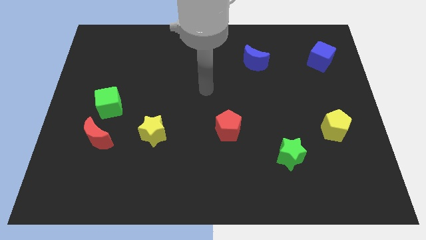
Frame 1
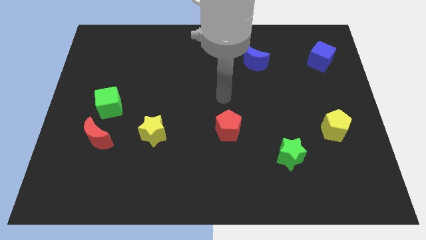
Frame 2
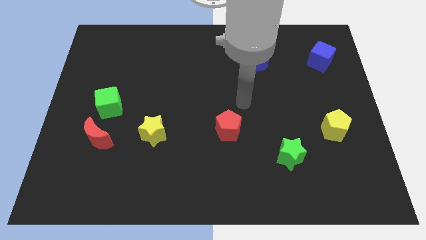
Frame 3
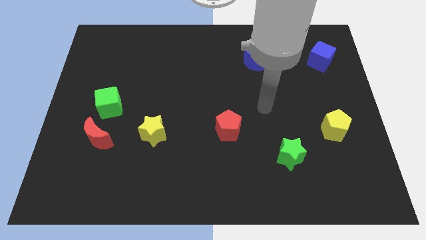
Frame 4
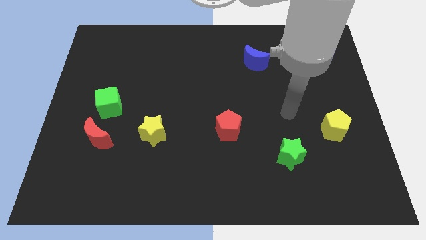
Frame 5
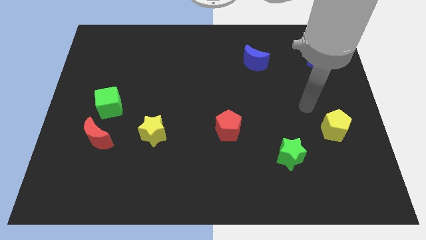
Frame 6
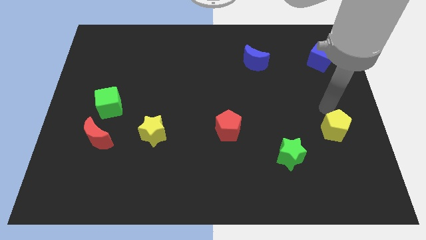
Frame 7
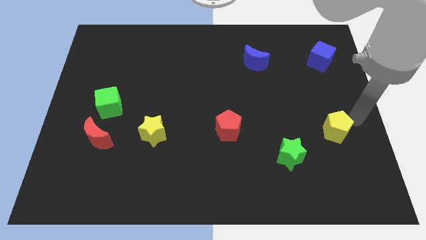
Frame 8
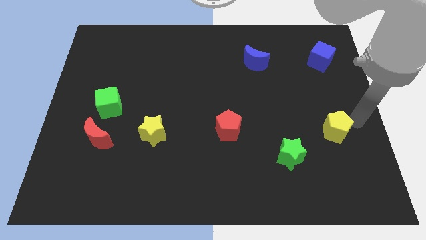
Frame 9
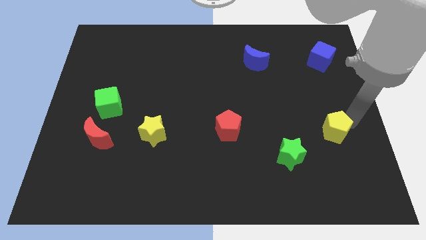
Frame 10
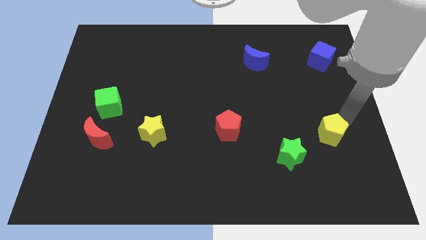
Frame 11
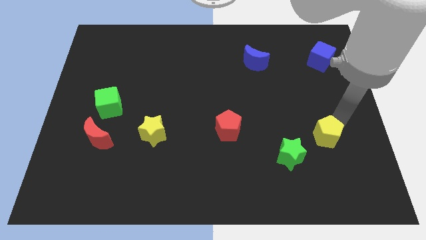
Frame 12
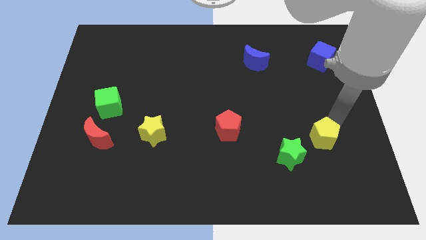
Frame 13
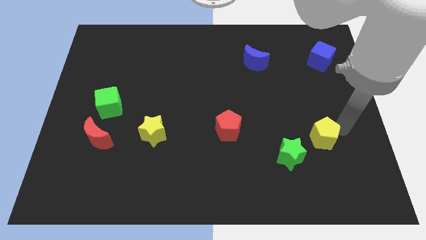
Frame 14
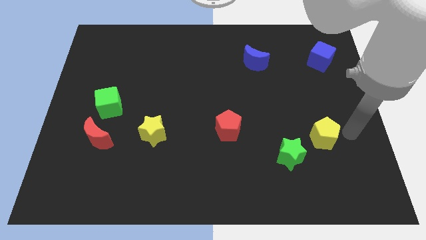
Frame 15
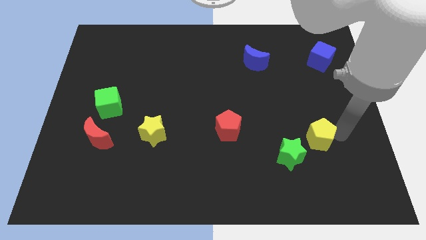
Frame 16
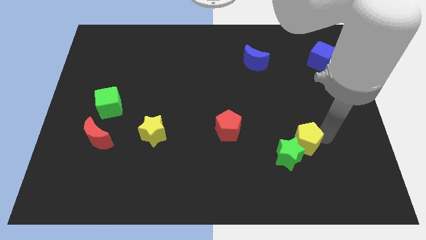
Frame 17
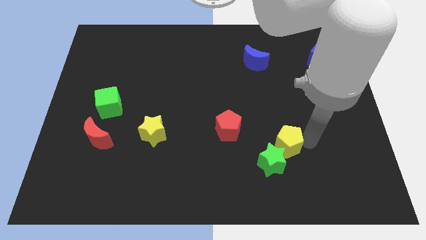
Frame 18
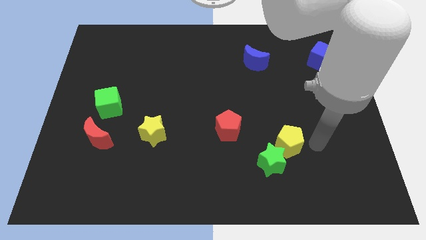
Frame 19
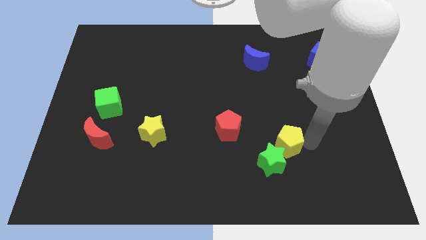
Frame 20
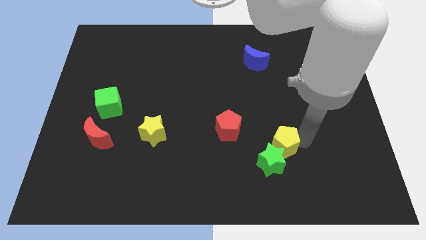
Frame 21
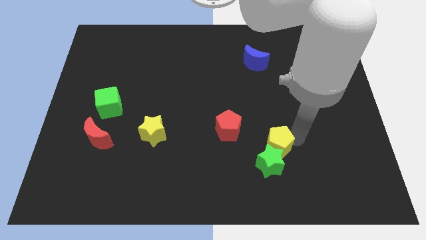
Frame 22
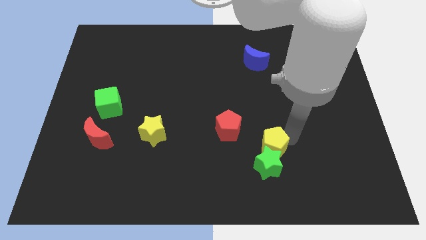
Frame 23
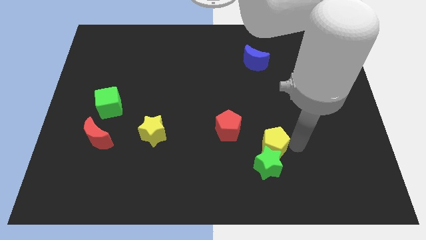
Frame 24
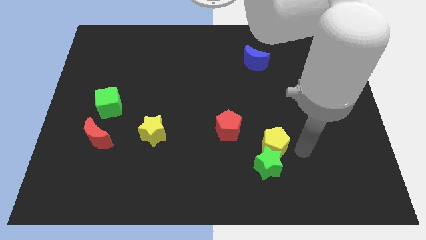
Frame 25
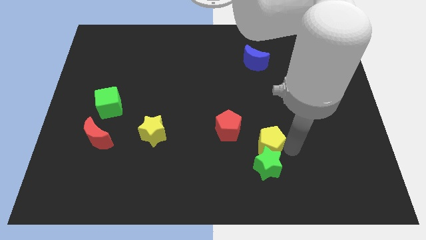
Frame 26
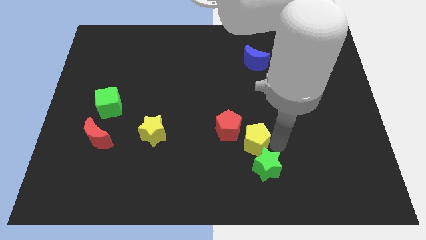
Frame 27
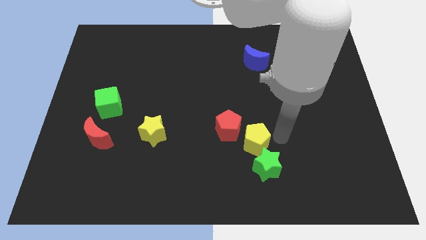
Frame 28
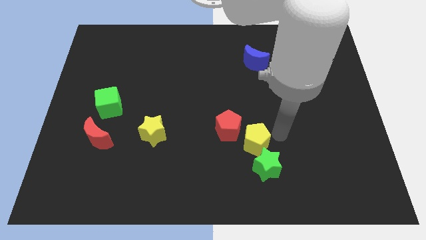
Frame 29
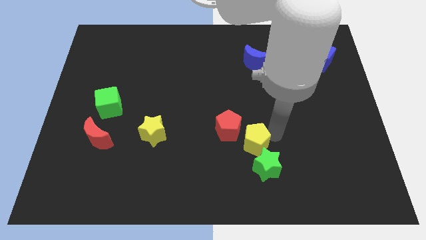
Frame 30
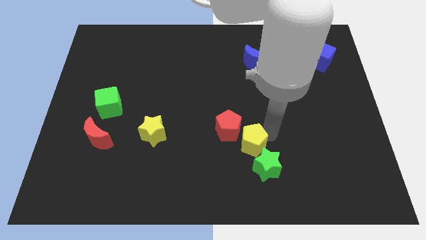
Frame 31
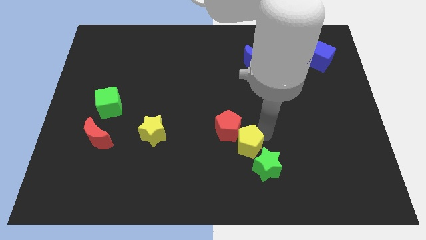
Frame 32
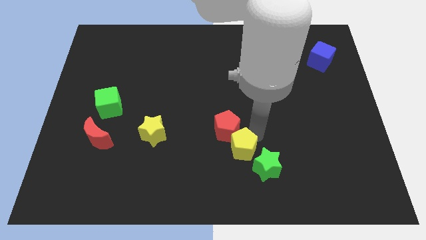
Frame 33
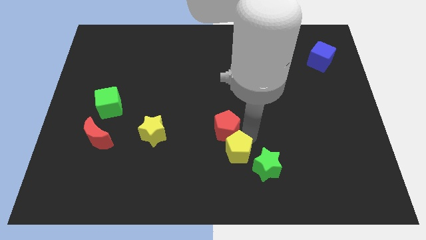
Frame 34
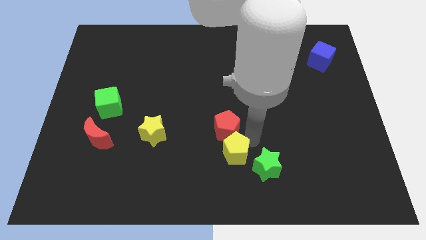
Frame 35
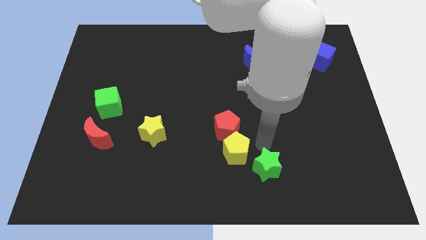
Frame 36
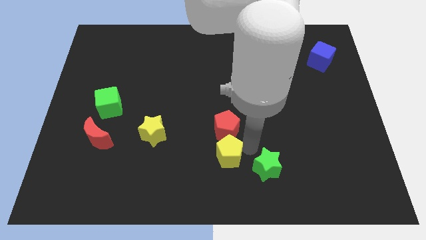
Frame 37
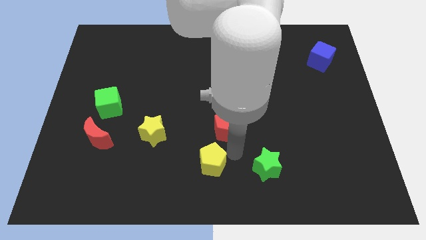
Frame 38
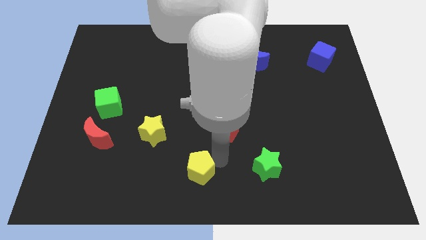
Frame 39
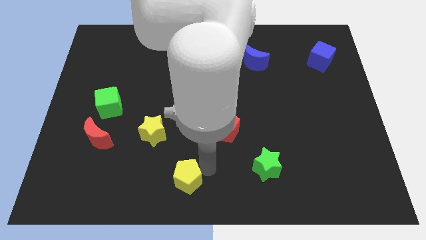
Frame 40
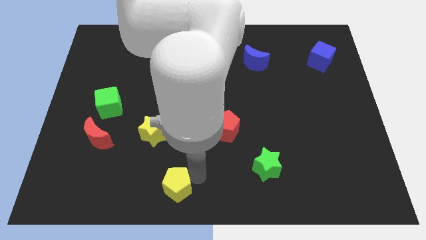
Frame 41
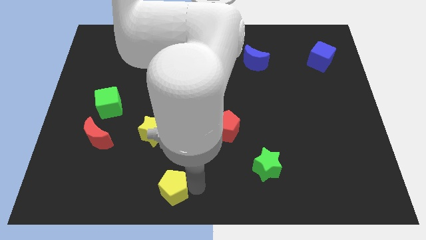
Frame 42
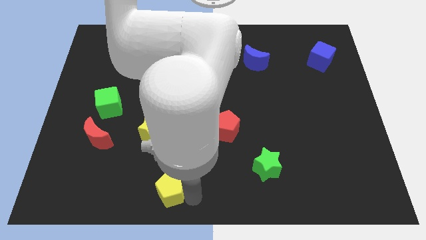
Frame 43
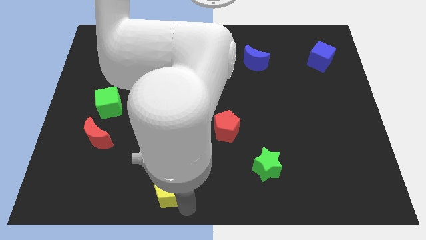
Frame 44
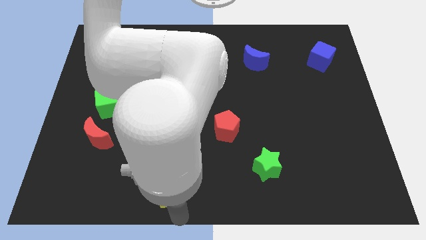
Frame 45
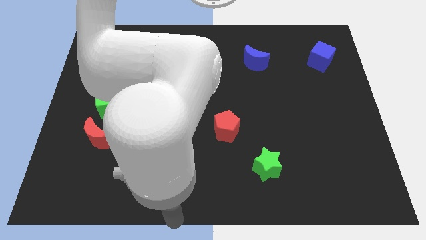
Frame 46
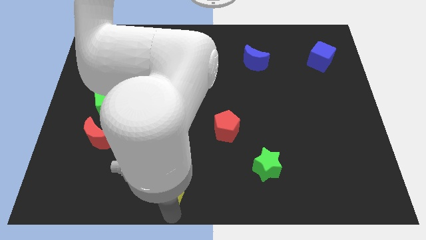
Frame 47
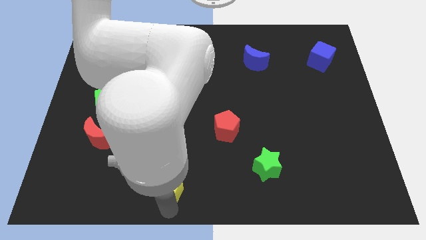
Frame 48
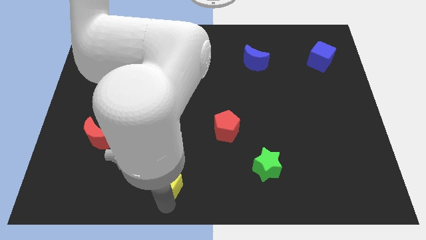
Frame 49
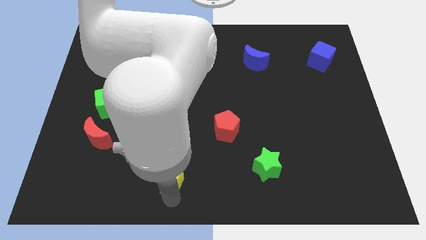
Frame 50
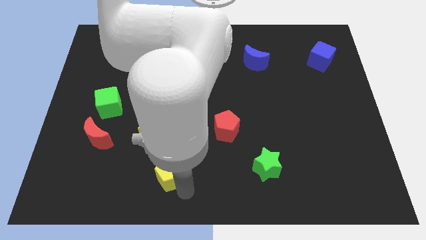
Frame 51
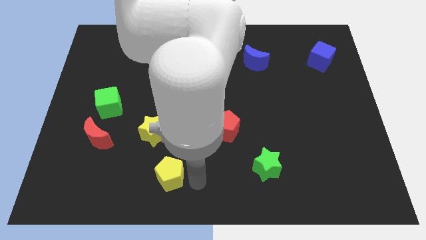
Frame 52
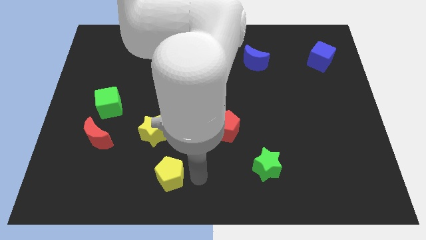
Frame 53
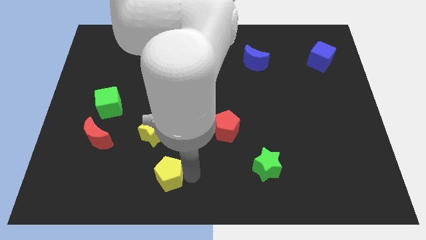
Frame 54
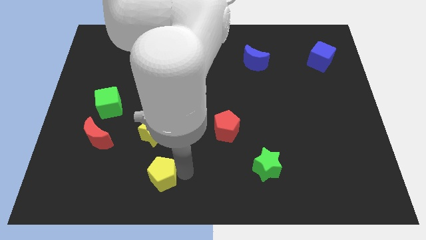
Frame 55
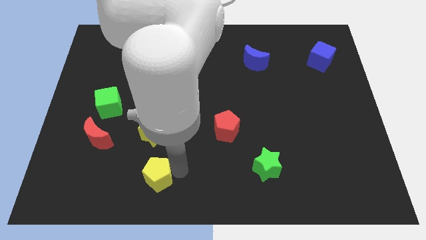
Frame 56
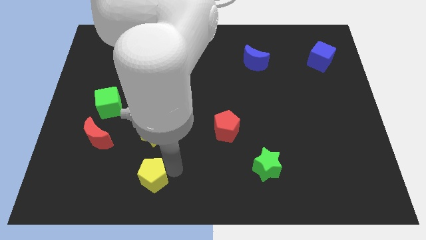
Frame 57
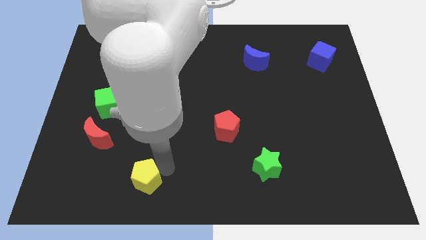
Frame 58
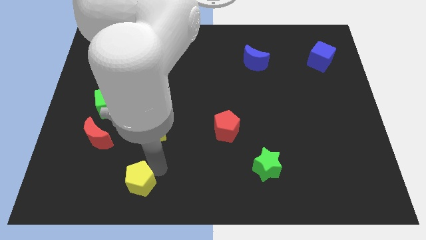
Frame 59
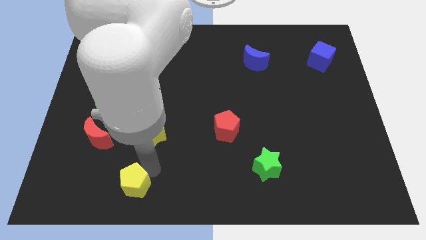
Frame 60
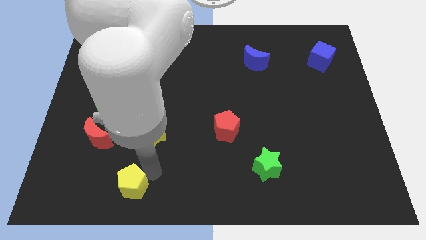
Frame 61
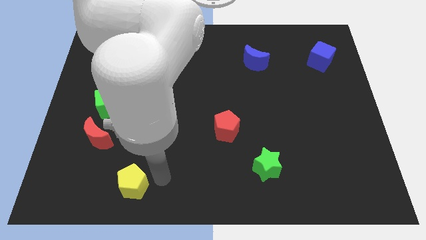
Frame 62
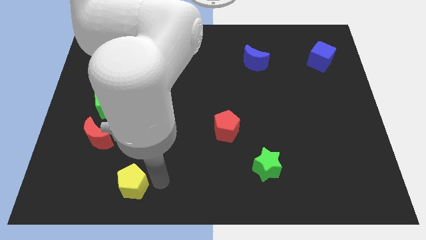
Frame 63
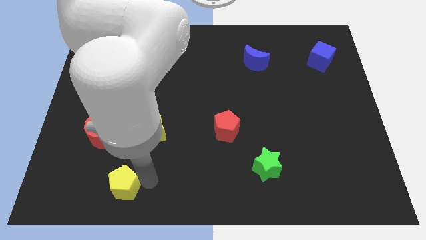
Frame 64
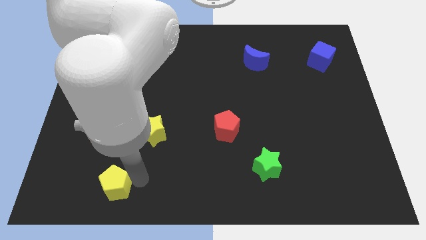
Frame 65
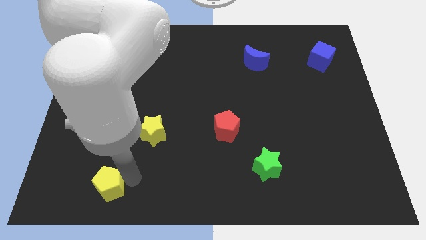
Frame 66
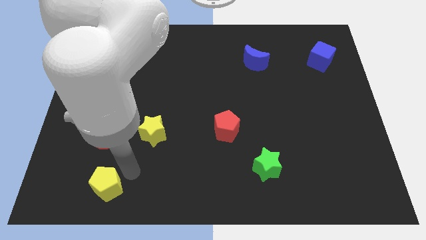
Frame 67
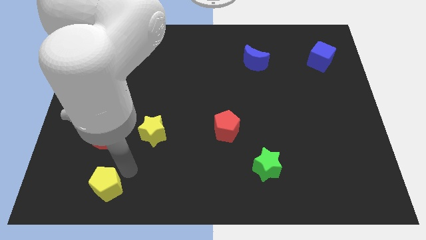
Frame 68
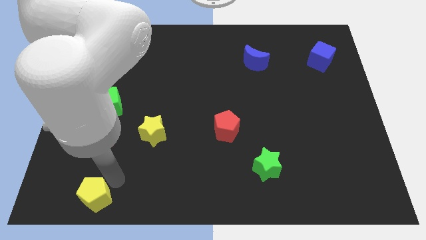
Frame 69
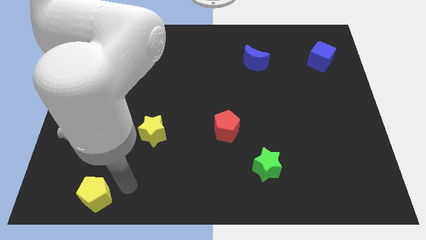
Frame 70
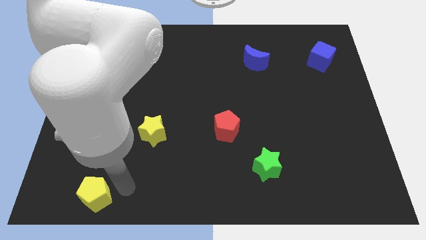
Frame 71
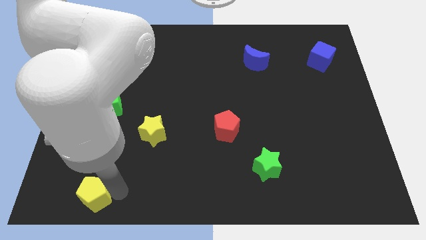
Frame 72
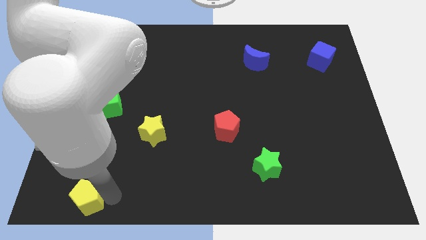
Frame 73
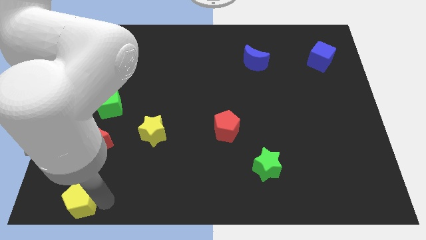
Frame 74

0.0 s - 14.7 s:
put the yellow pentagon to the bottom left corner
